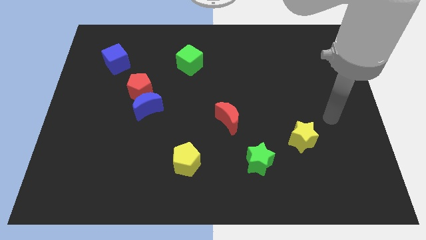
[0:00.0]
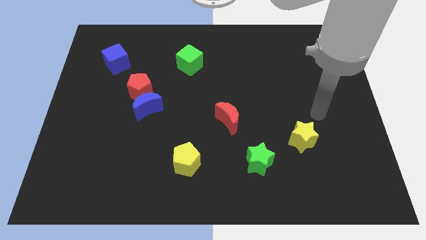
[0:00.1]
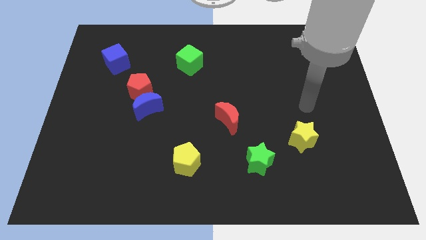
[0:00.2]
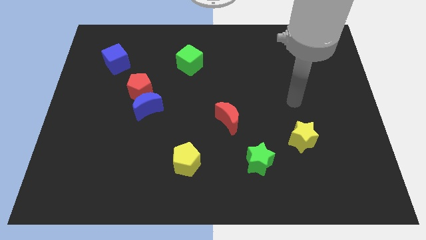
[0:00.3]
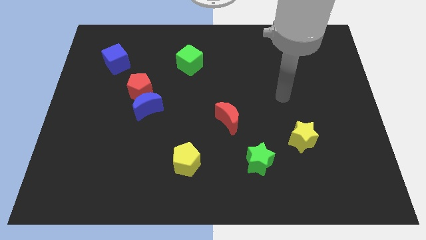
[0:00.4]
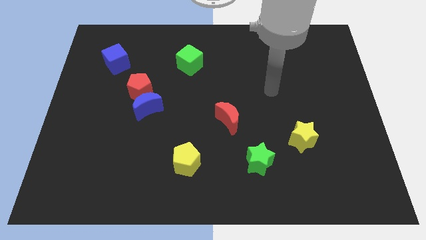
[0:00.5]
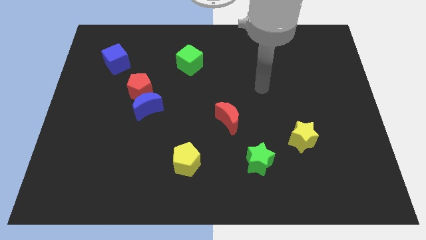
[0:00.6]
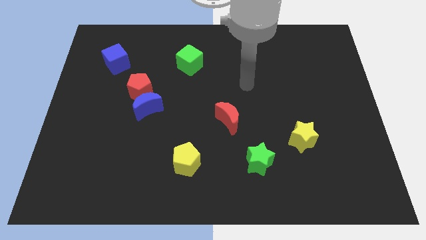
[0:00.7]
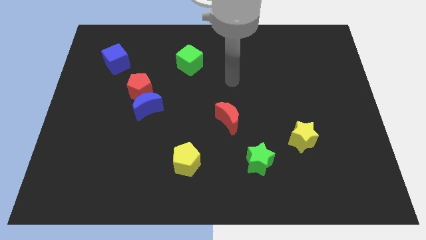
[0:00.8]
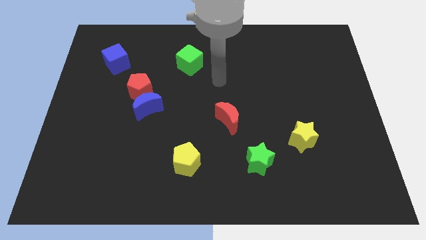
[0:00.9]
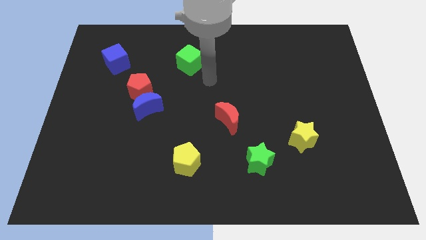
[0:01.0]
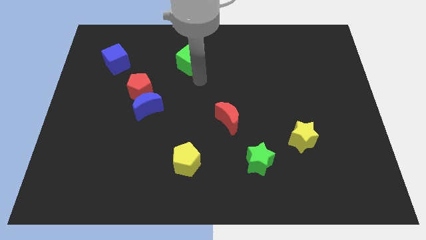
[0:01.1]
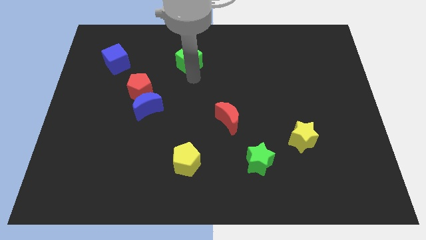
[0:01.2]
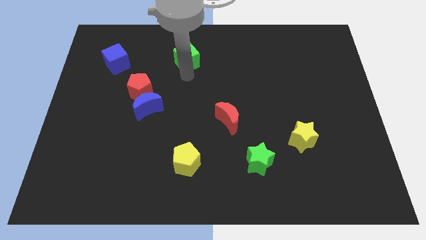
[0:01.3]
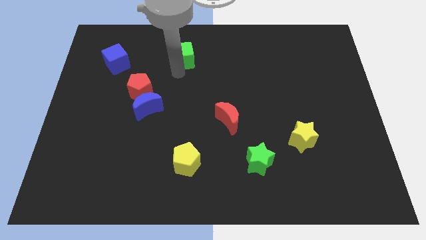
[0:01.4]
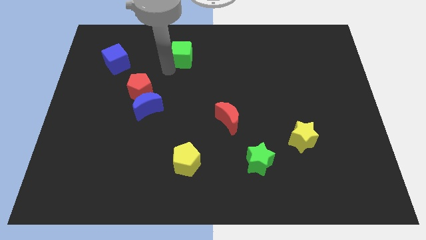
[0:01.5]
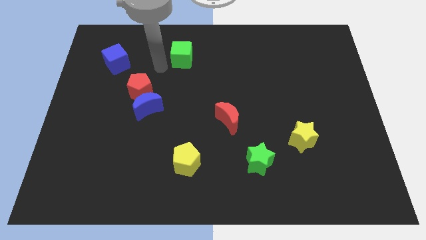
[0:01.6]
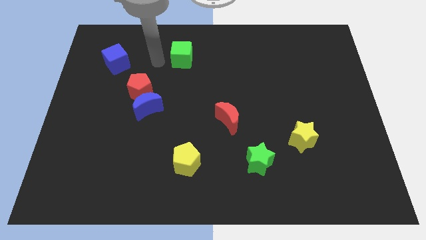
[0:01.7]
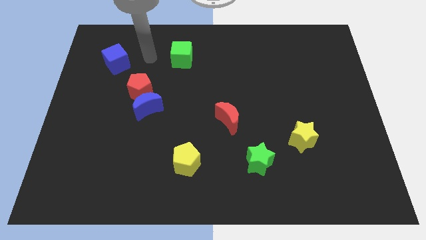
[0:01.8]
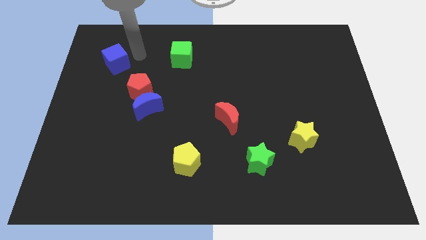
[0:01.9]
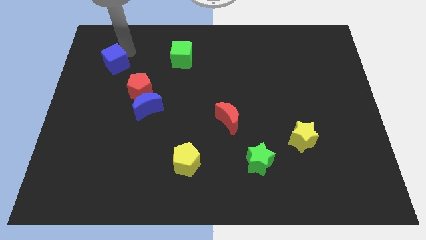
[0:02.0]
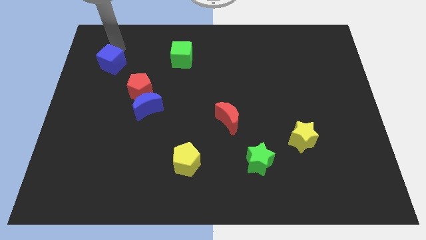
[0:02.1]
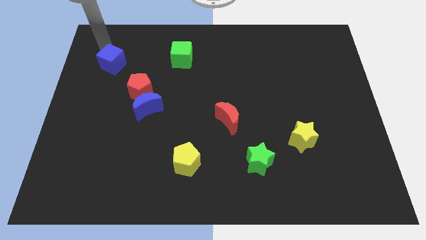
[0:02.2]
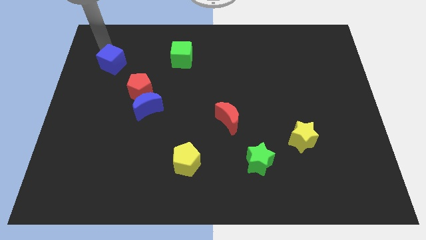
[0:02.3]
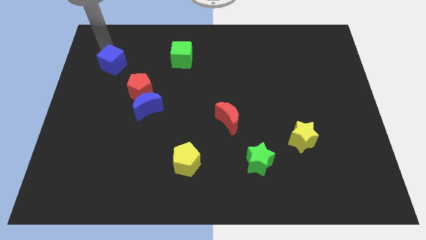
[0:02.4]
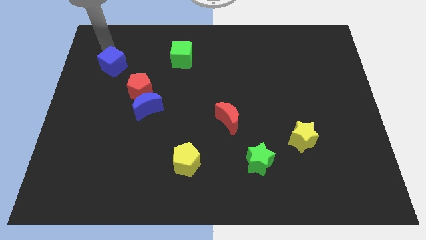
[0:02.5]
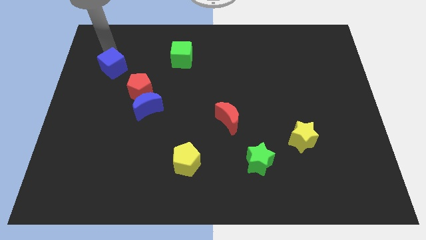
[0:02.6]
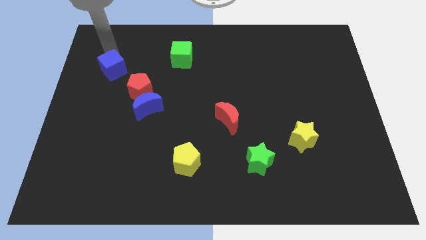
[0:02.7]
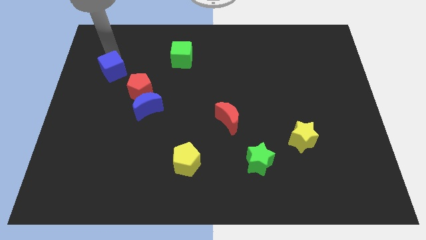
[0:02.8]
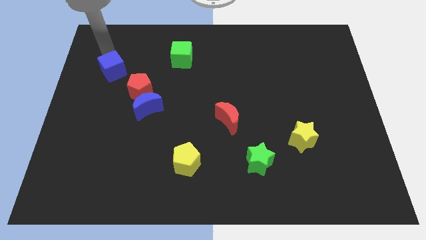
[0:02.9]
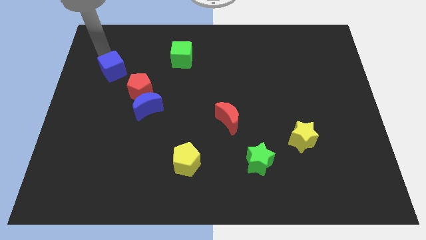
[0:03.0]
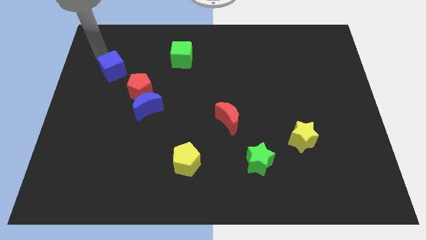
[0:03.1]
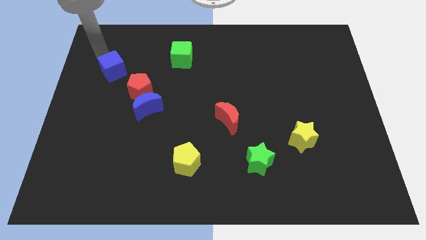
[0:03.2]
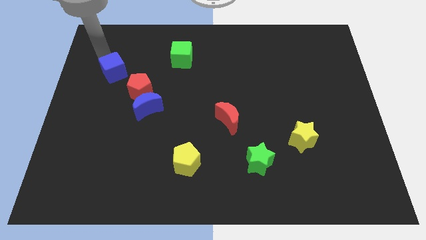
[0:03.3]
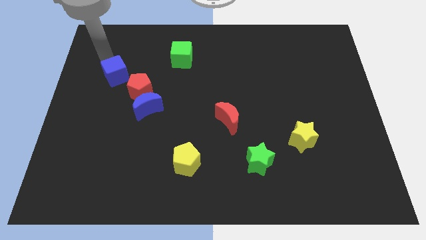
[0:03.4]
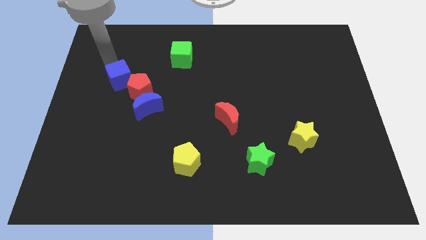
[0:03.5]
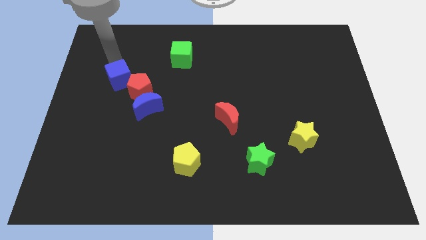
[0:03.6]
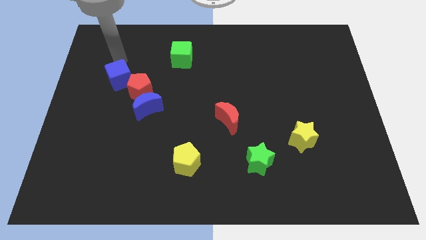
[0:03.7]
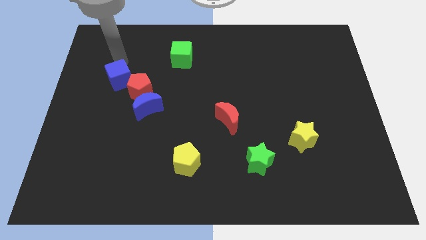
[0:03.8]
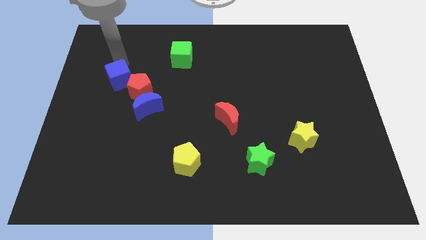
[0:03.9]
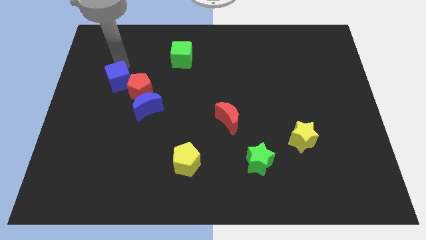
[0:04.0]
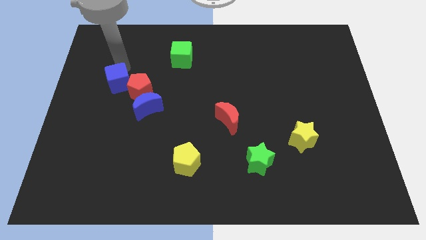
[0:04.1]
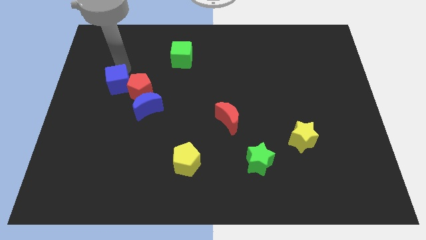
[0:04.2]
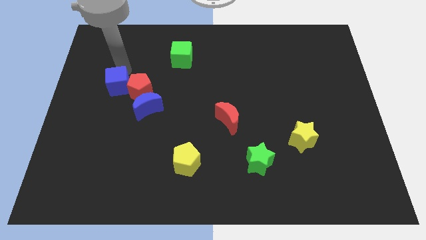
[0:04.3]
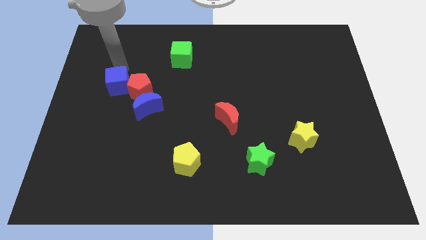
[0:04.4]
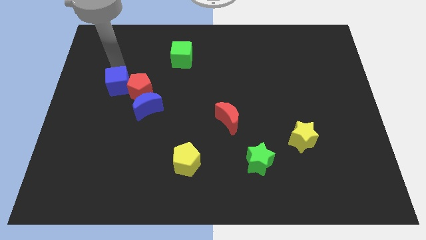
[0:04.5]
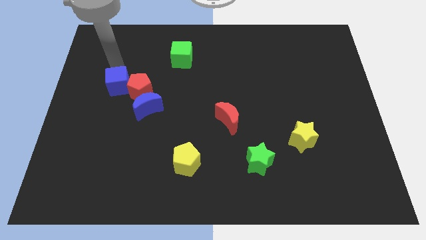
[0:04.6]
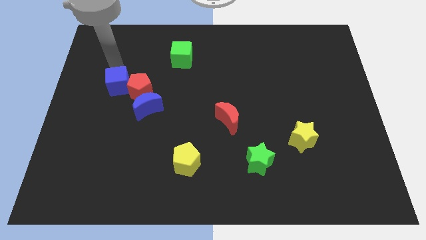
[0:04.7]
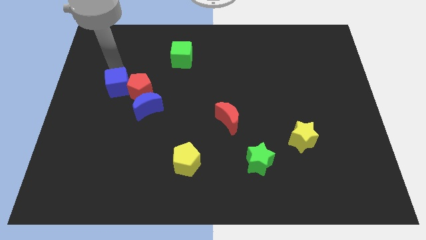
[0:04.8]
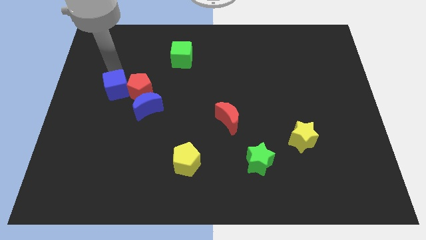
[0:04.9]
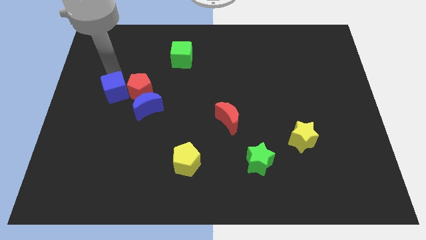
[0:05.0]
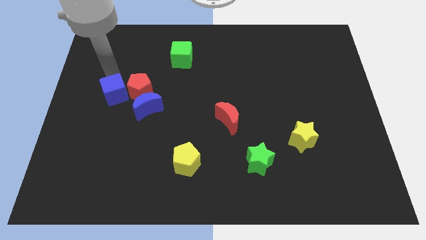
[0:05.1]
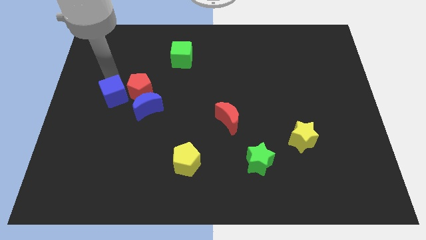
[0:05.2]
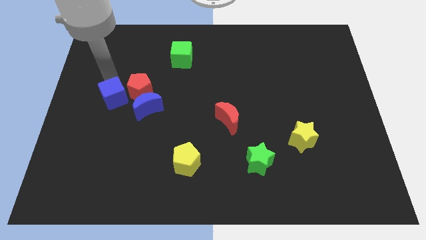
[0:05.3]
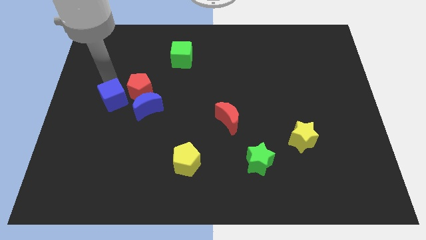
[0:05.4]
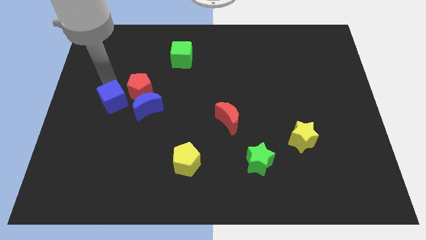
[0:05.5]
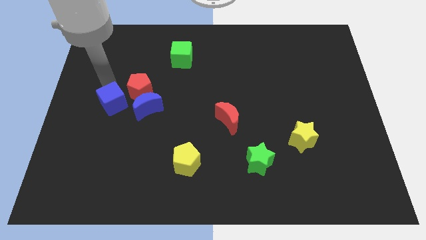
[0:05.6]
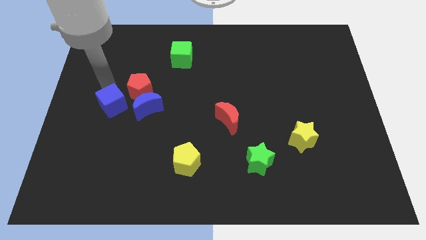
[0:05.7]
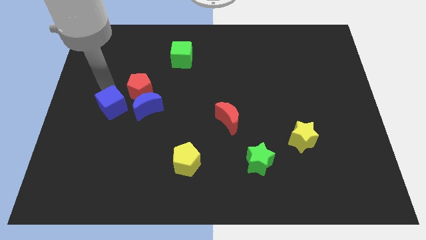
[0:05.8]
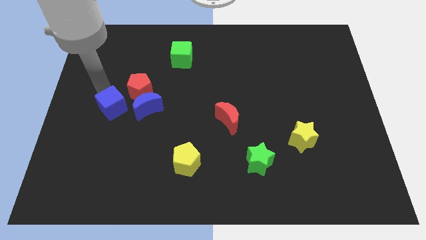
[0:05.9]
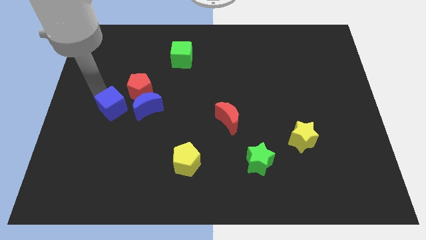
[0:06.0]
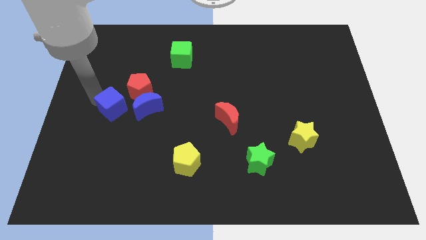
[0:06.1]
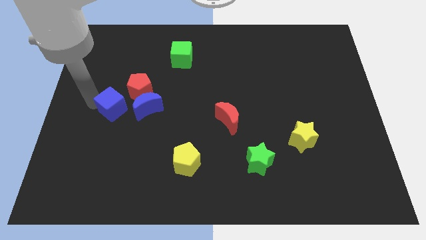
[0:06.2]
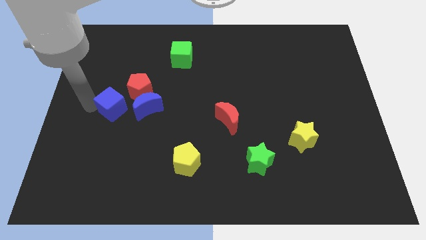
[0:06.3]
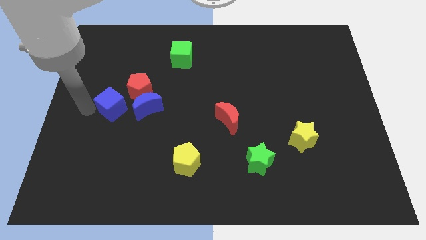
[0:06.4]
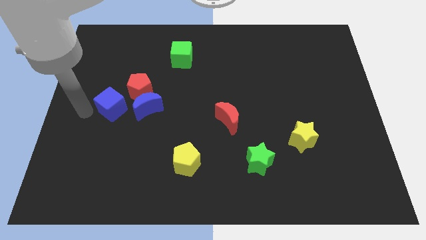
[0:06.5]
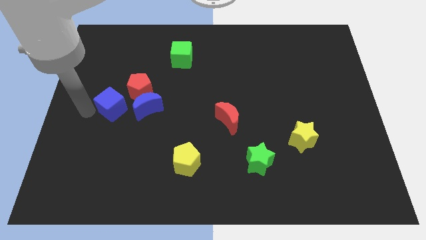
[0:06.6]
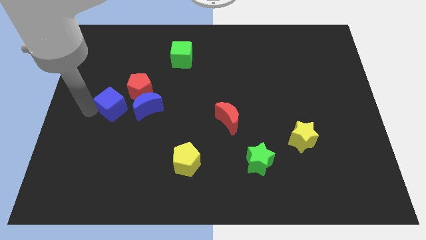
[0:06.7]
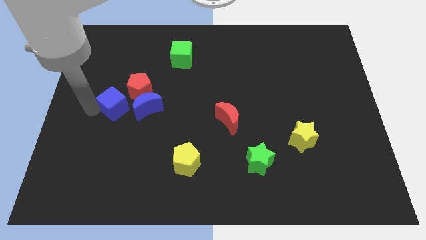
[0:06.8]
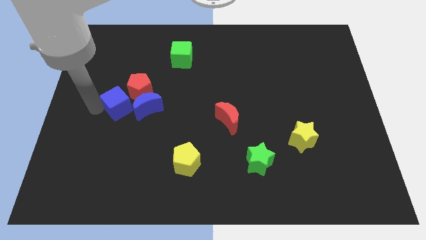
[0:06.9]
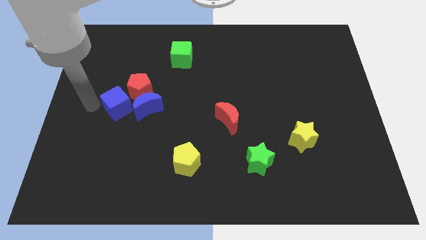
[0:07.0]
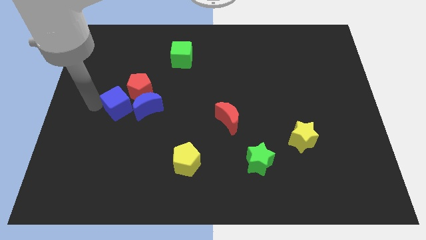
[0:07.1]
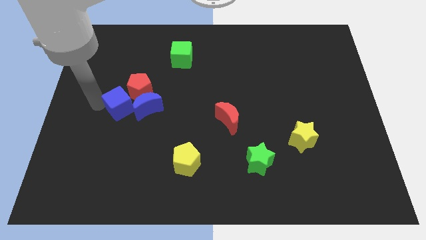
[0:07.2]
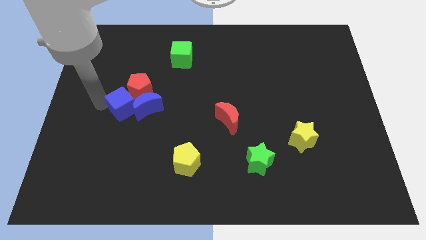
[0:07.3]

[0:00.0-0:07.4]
push the blue cube close to the blue moon

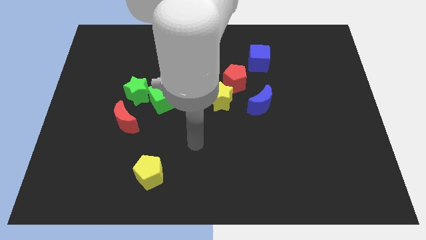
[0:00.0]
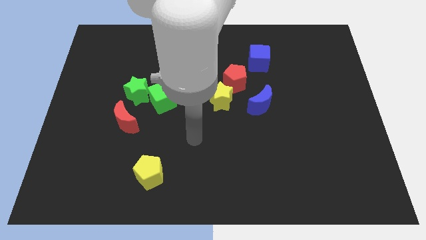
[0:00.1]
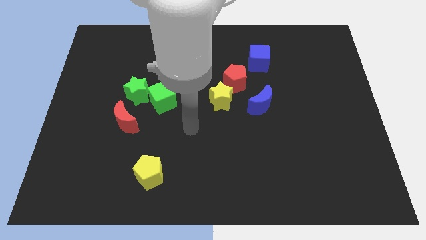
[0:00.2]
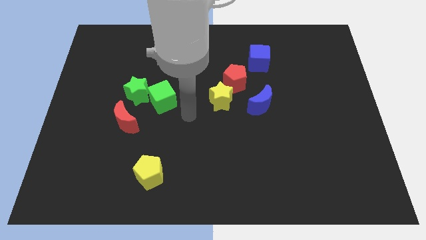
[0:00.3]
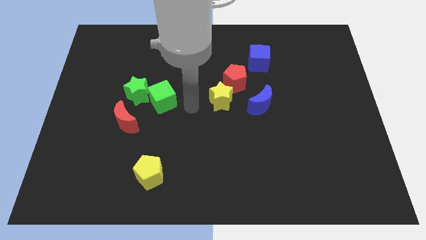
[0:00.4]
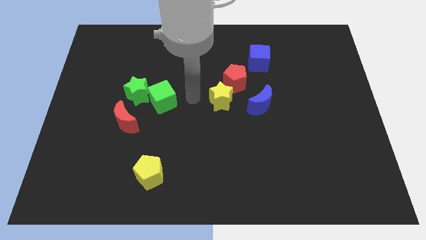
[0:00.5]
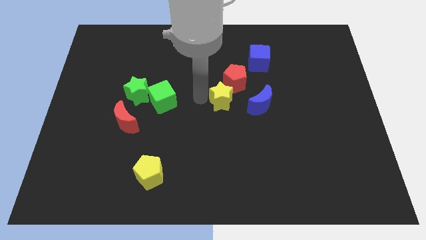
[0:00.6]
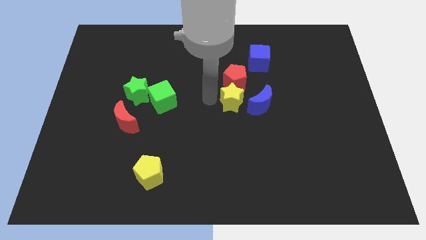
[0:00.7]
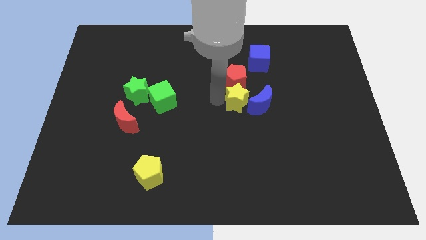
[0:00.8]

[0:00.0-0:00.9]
slide the yellow star towards the blue moon
